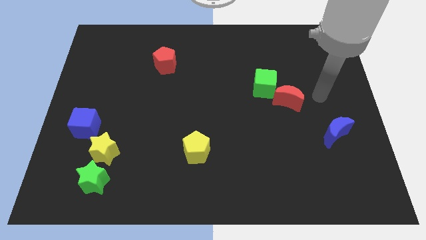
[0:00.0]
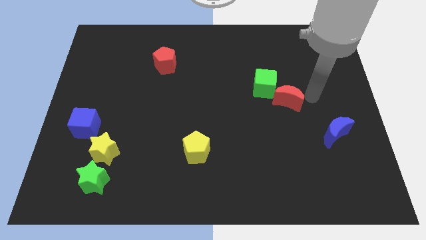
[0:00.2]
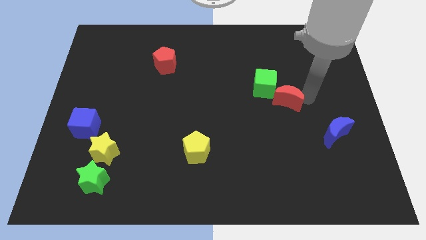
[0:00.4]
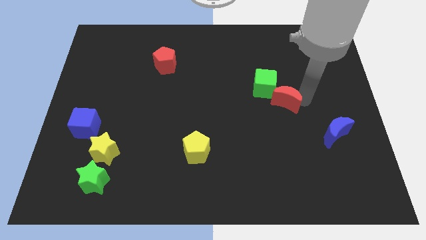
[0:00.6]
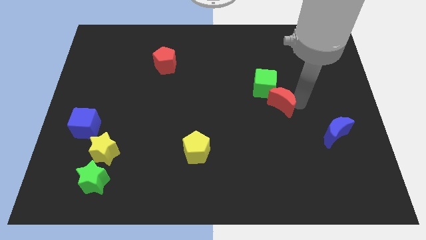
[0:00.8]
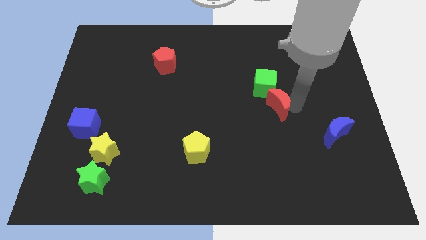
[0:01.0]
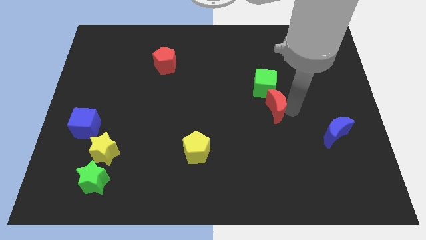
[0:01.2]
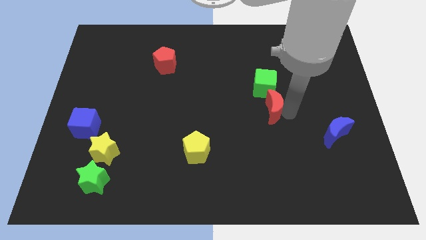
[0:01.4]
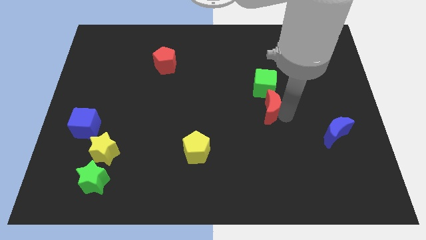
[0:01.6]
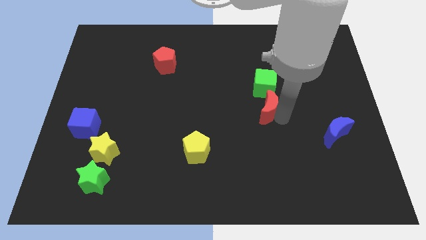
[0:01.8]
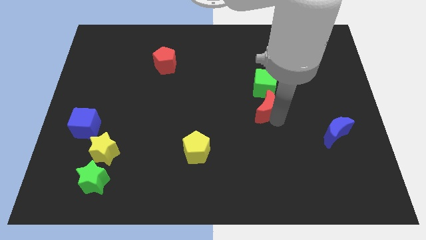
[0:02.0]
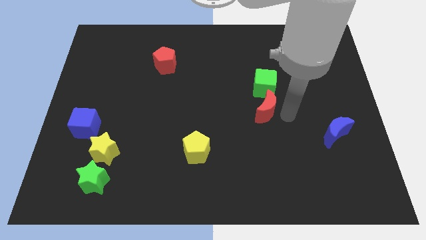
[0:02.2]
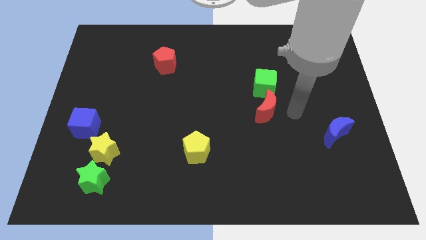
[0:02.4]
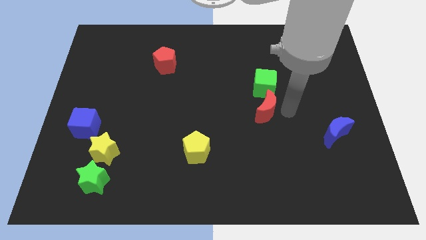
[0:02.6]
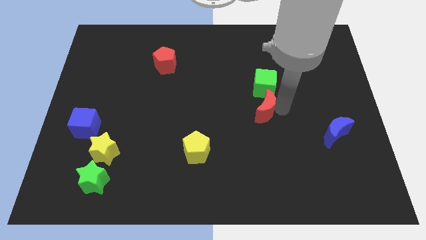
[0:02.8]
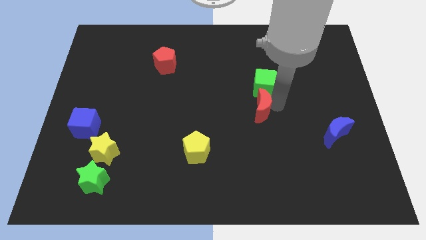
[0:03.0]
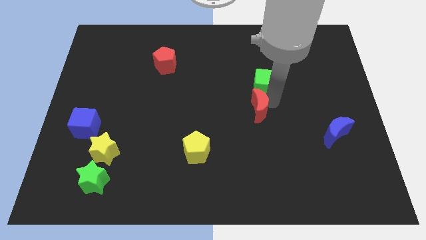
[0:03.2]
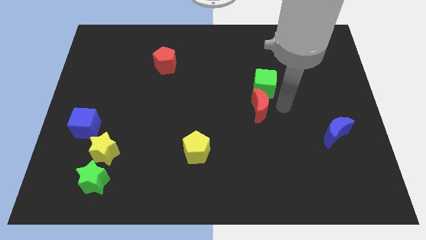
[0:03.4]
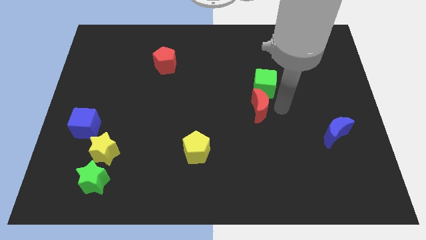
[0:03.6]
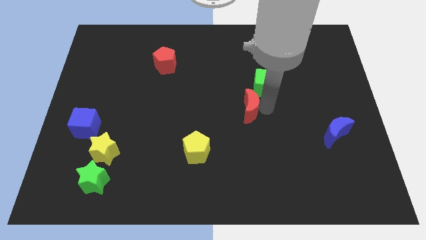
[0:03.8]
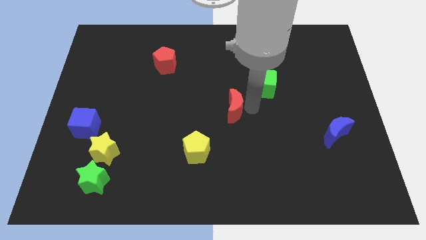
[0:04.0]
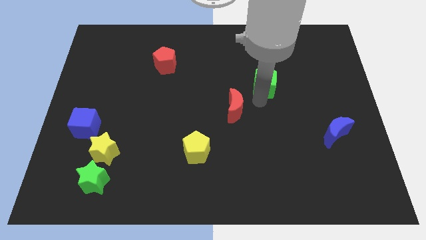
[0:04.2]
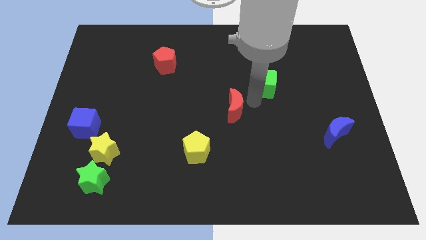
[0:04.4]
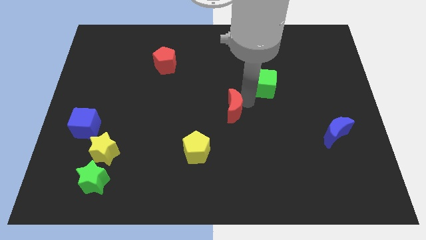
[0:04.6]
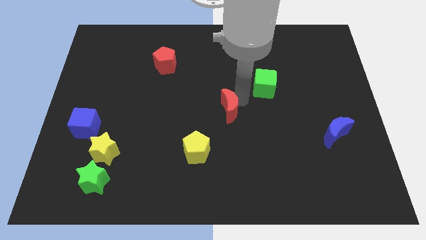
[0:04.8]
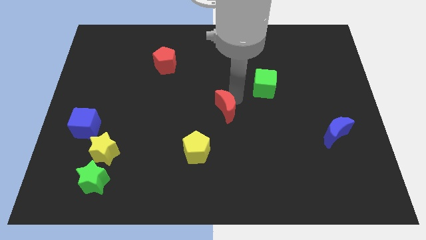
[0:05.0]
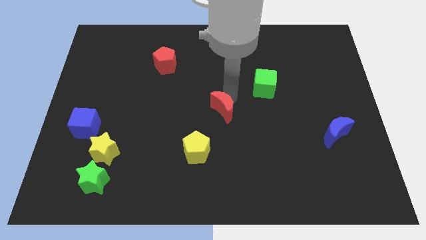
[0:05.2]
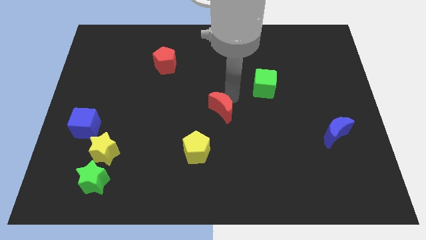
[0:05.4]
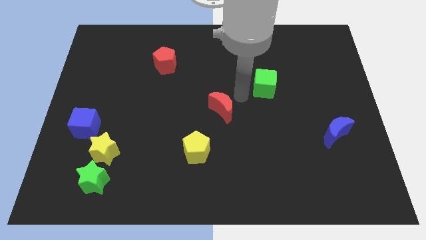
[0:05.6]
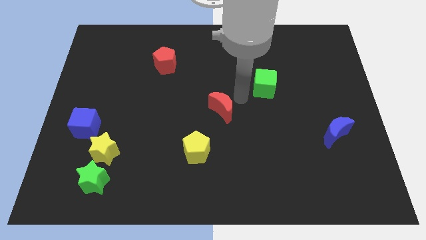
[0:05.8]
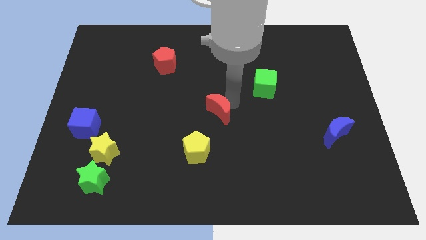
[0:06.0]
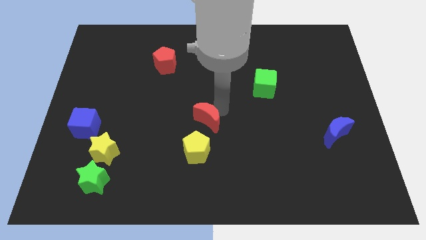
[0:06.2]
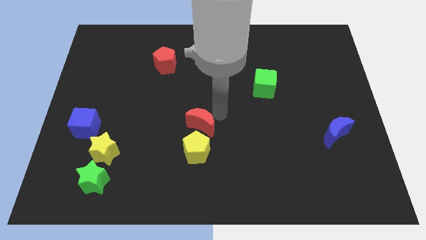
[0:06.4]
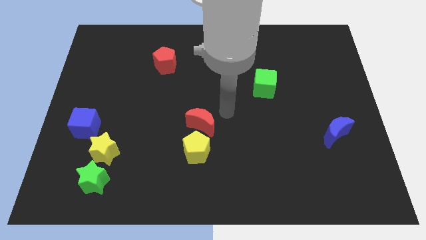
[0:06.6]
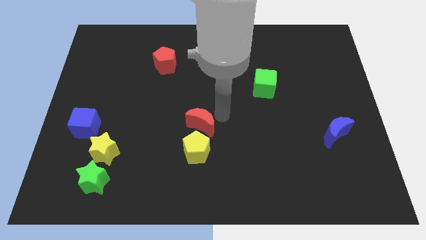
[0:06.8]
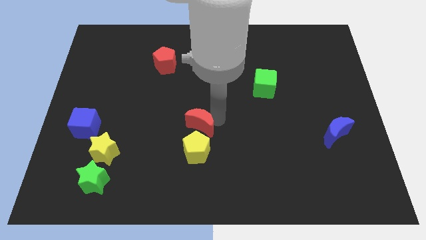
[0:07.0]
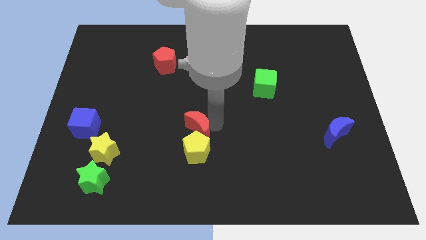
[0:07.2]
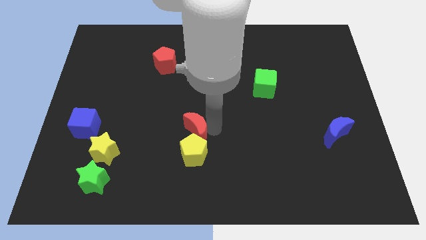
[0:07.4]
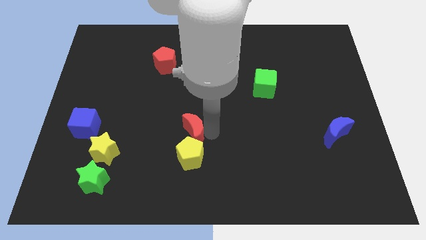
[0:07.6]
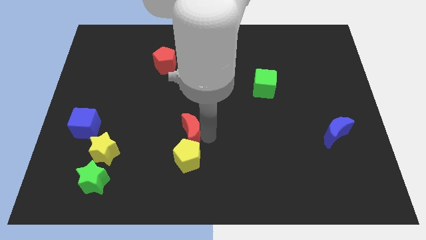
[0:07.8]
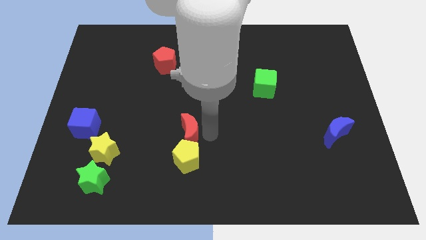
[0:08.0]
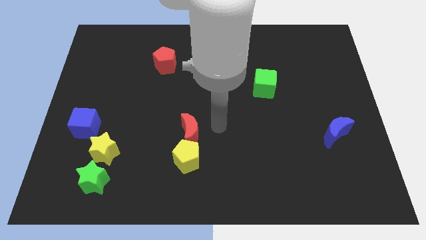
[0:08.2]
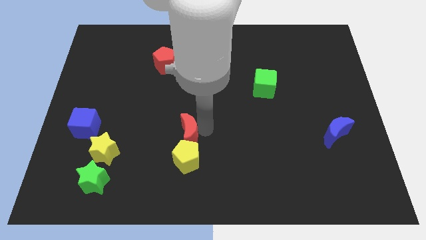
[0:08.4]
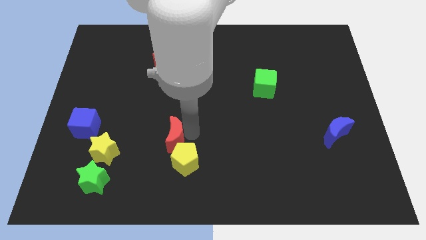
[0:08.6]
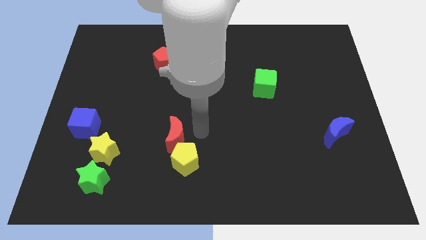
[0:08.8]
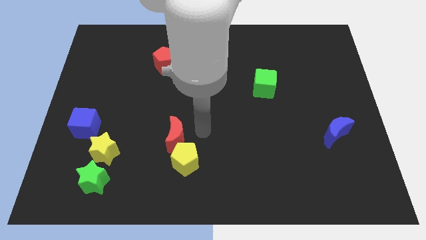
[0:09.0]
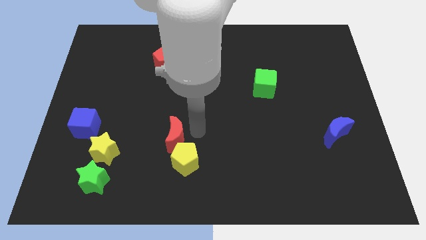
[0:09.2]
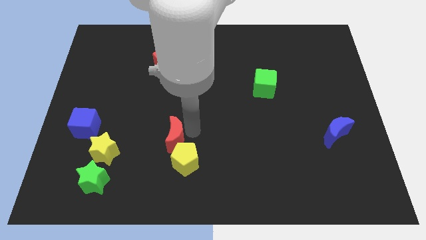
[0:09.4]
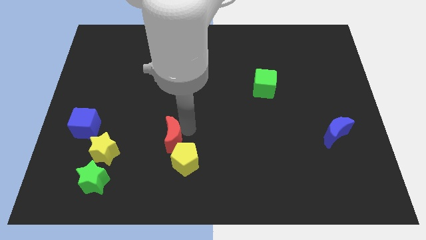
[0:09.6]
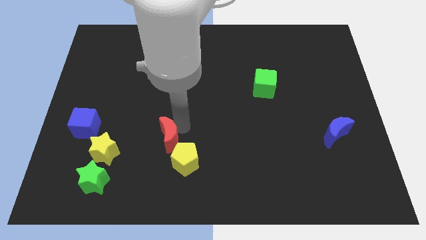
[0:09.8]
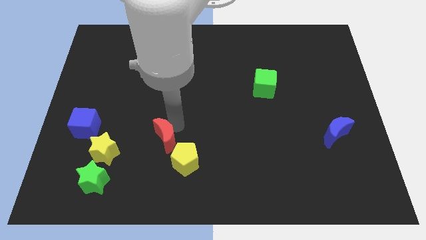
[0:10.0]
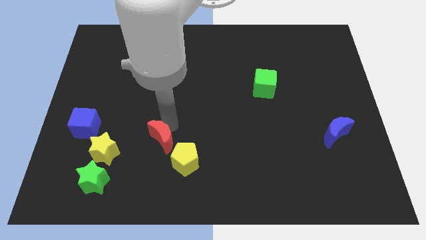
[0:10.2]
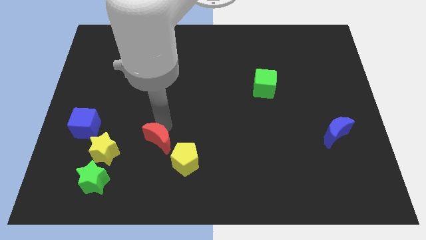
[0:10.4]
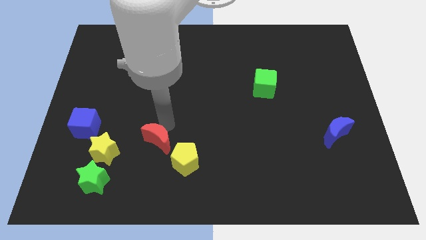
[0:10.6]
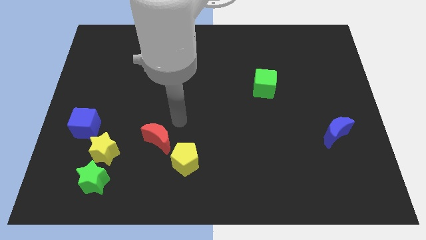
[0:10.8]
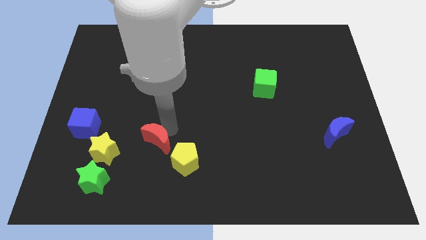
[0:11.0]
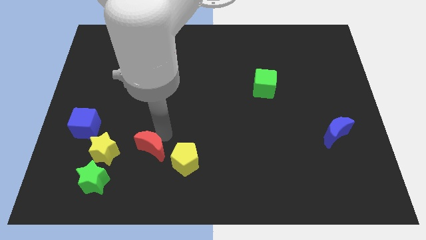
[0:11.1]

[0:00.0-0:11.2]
push the red moon to the left of the yellow pentagon
